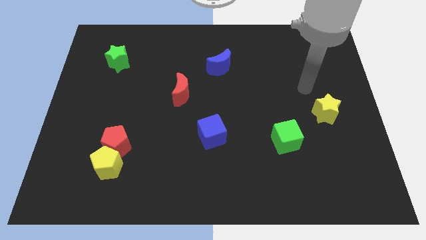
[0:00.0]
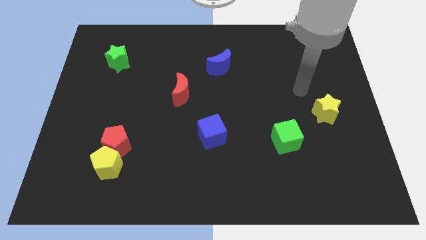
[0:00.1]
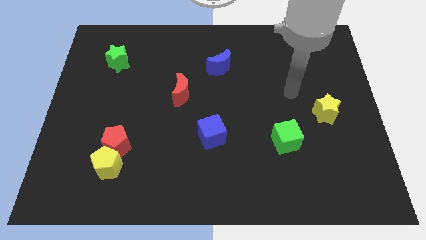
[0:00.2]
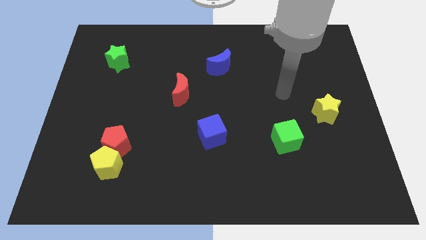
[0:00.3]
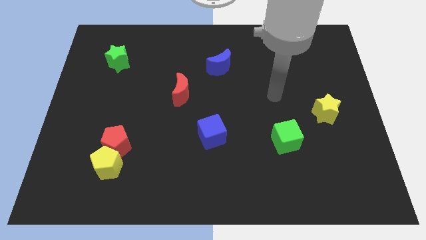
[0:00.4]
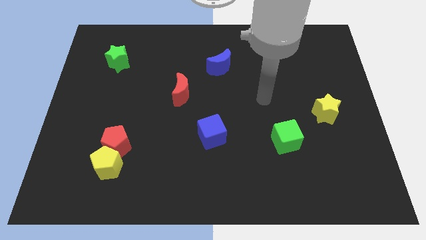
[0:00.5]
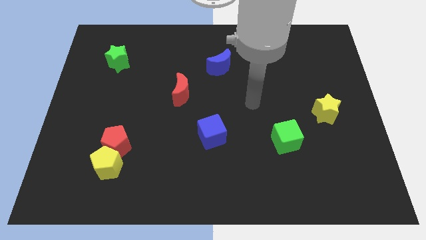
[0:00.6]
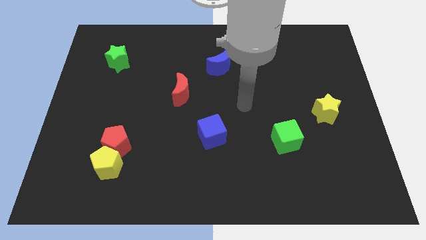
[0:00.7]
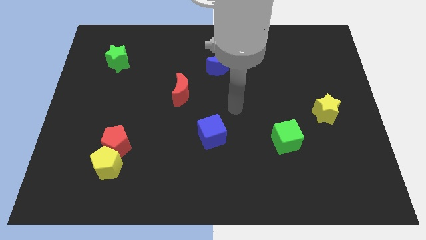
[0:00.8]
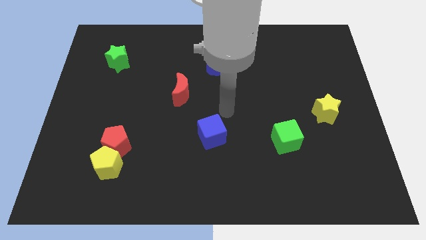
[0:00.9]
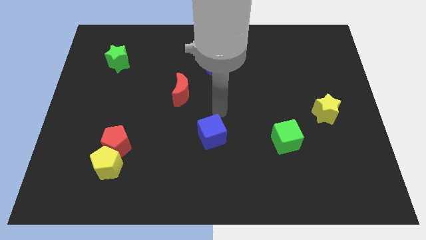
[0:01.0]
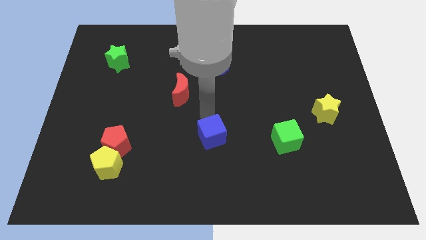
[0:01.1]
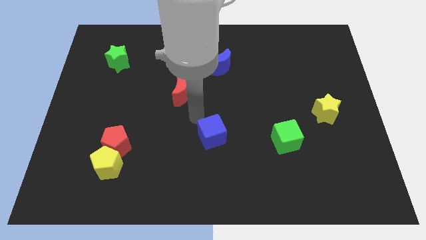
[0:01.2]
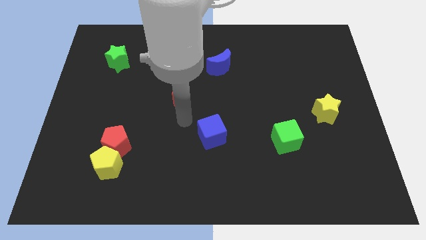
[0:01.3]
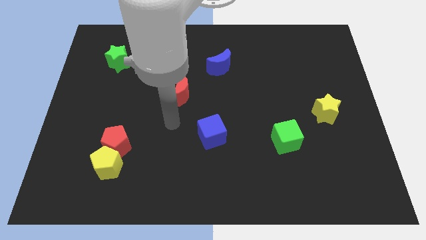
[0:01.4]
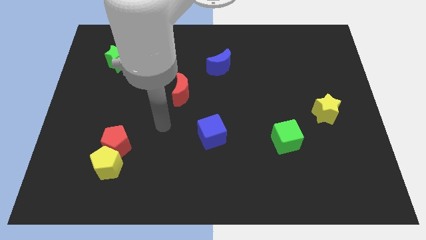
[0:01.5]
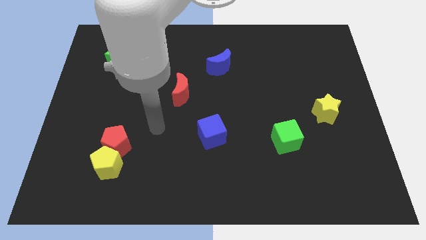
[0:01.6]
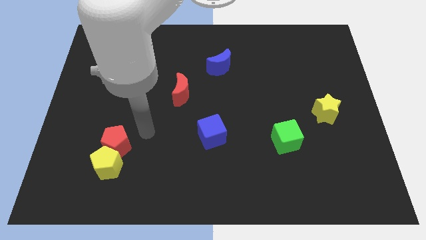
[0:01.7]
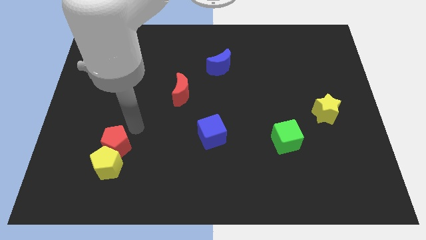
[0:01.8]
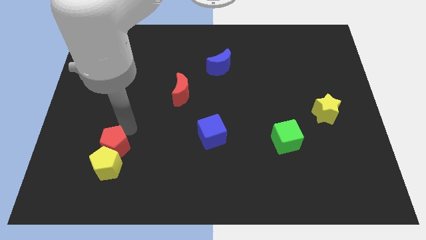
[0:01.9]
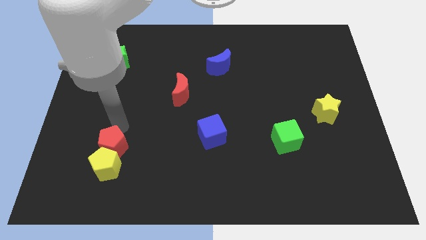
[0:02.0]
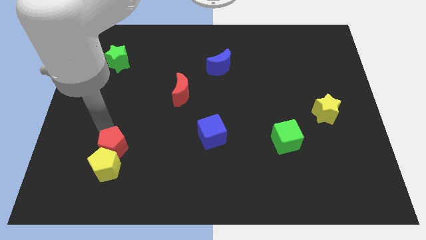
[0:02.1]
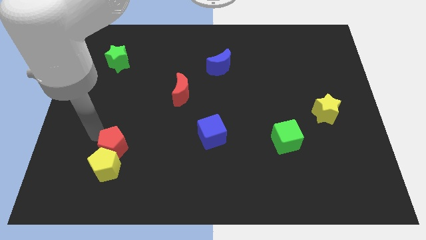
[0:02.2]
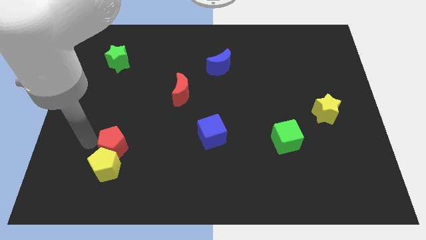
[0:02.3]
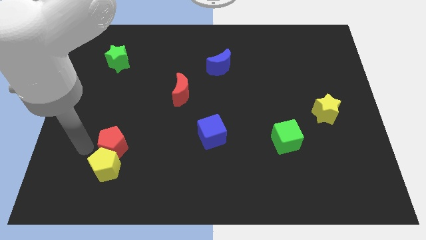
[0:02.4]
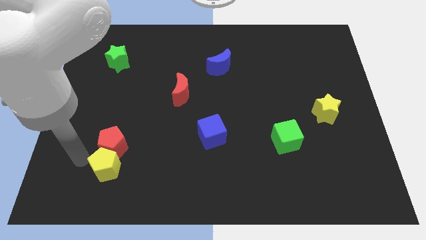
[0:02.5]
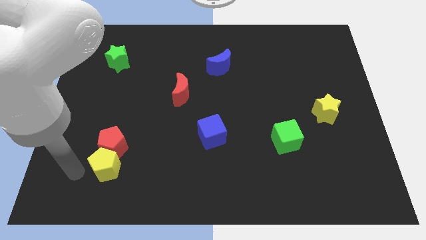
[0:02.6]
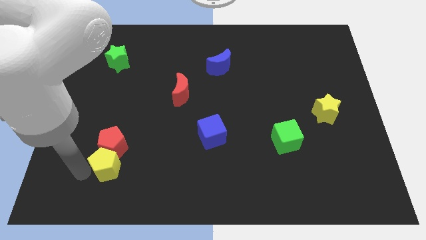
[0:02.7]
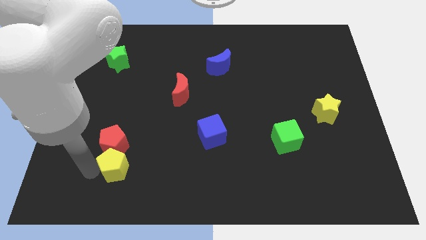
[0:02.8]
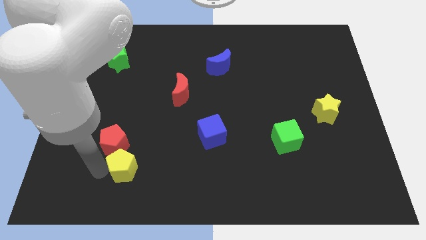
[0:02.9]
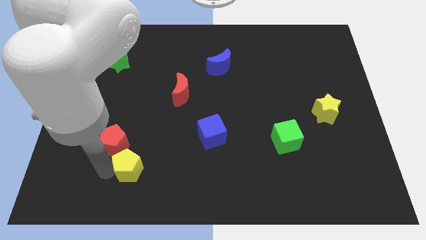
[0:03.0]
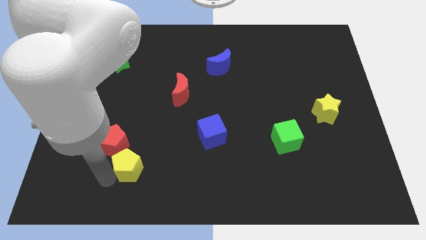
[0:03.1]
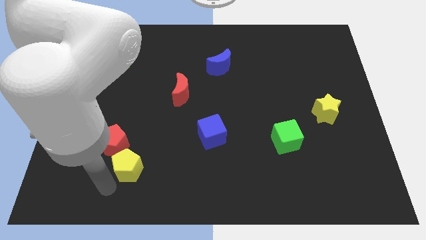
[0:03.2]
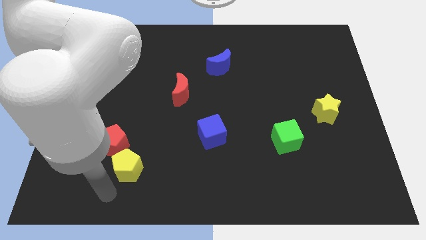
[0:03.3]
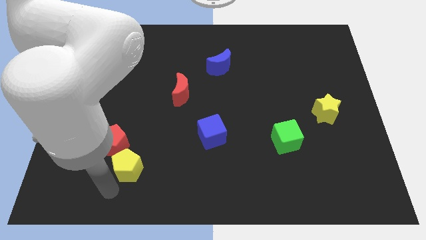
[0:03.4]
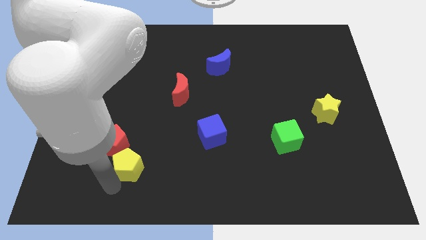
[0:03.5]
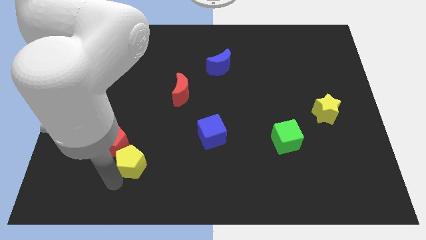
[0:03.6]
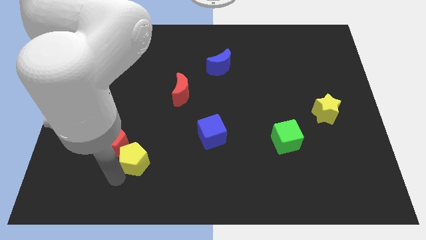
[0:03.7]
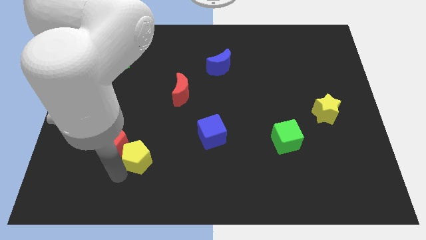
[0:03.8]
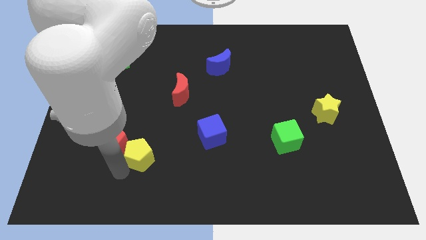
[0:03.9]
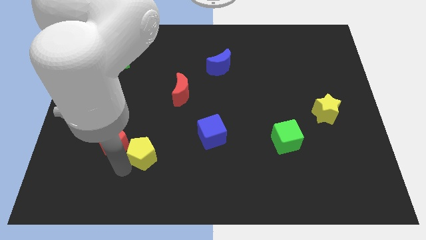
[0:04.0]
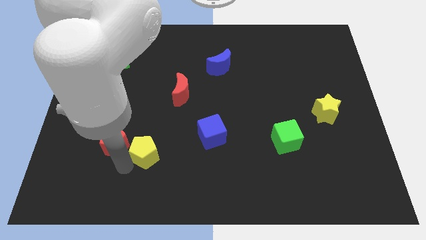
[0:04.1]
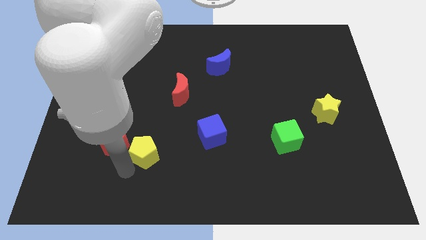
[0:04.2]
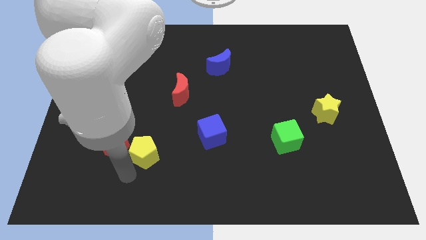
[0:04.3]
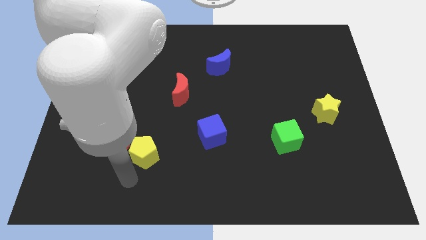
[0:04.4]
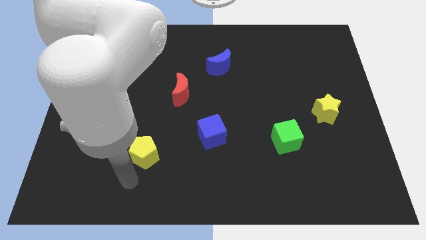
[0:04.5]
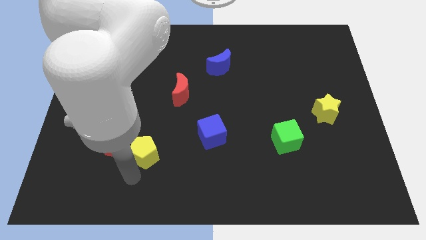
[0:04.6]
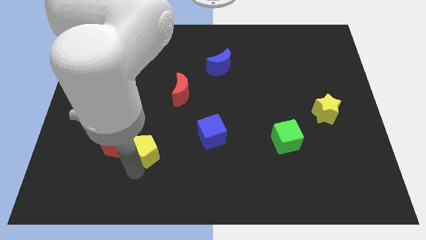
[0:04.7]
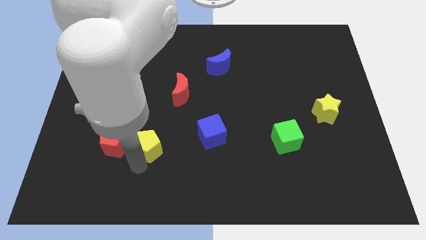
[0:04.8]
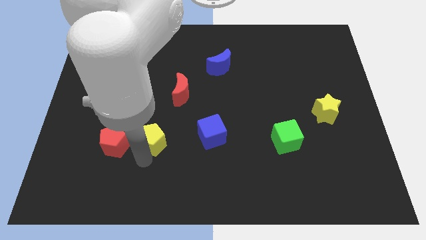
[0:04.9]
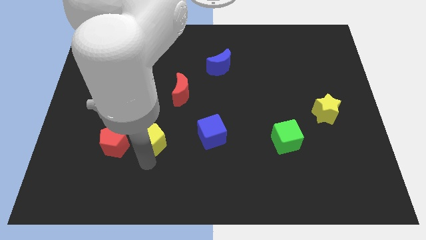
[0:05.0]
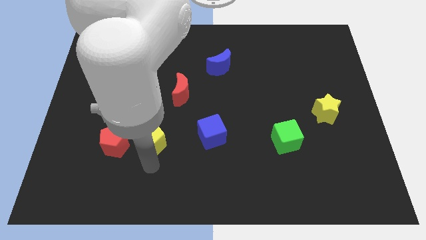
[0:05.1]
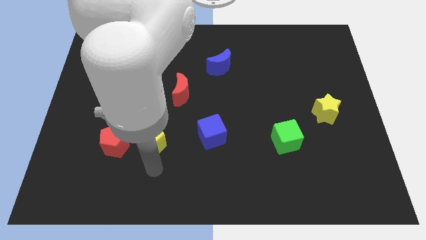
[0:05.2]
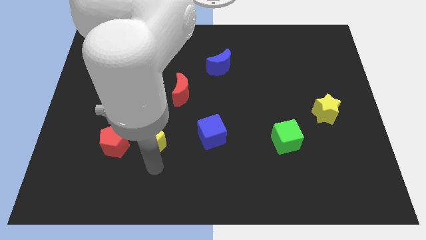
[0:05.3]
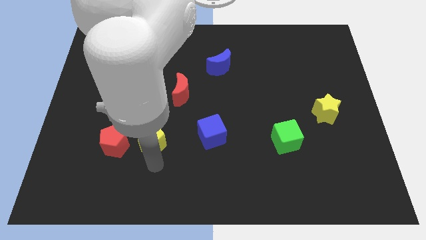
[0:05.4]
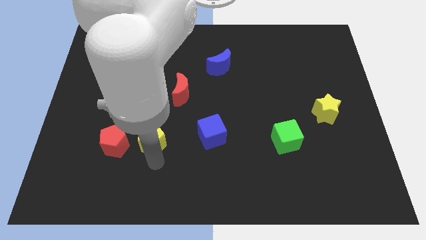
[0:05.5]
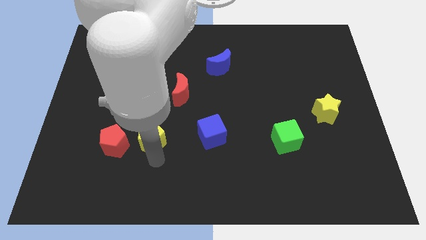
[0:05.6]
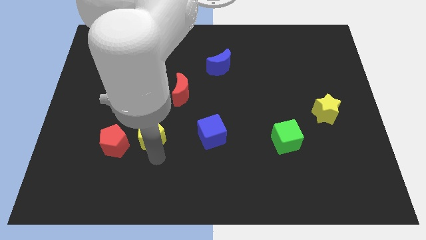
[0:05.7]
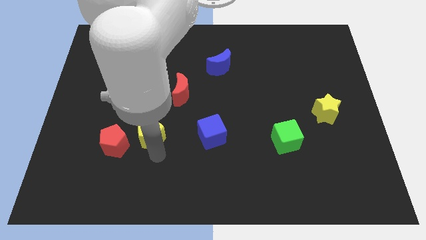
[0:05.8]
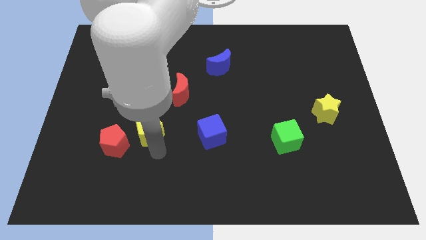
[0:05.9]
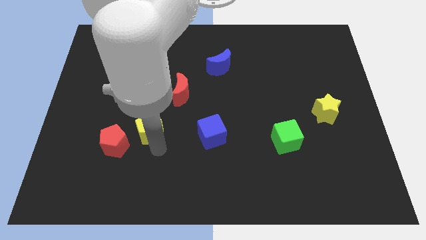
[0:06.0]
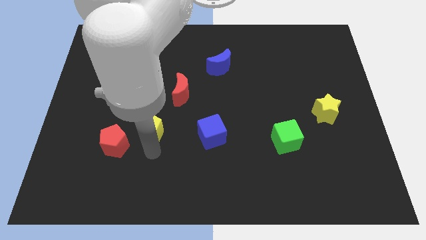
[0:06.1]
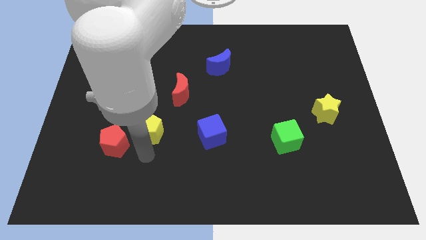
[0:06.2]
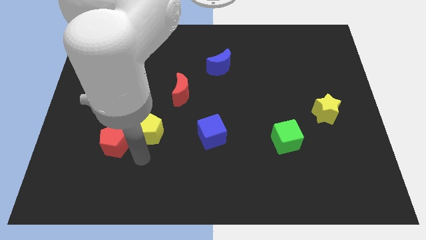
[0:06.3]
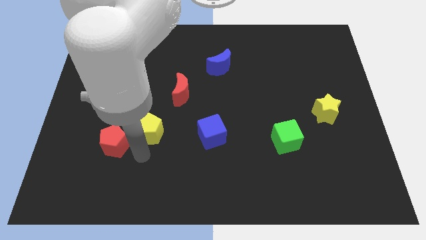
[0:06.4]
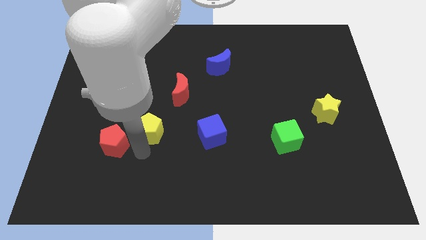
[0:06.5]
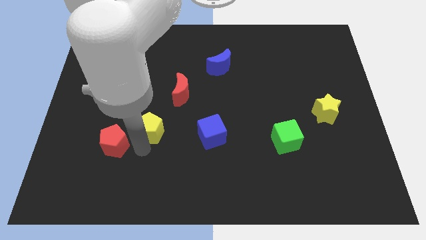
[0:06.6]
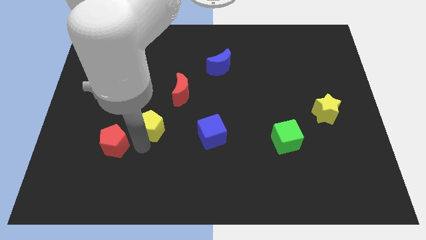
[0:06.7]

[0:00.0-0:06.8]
push the yellow pentagon to the bottom left of the red moon

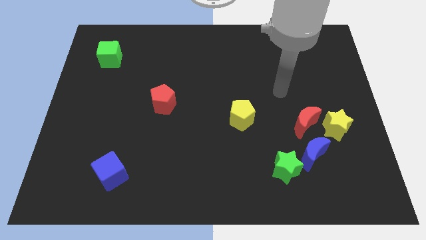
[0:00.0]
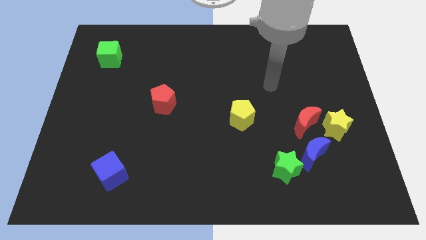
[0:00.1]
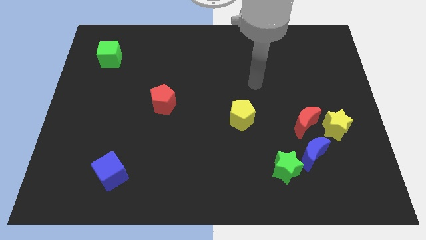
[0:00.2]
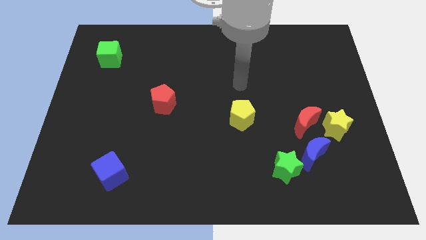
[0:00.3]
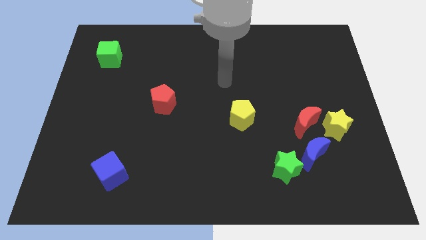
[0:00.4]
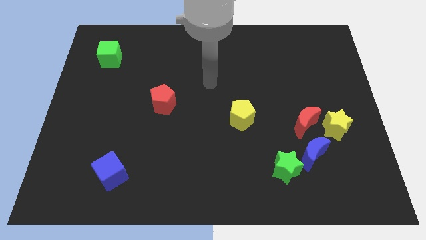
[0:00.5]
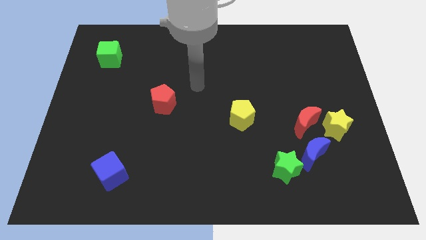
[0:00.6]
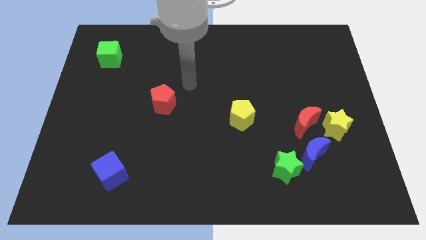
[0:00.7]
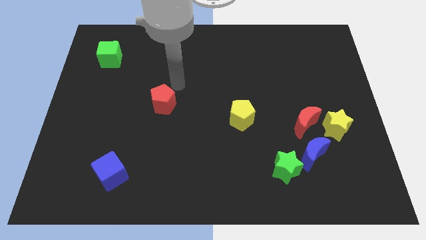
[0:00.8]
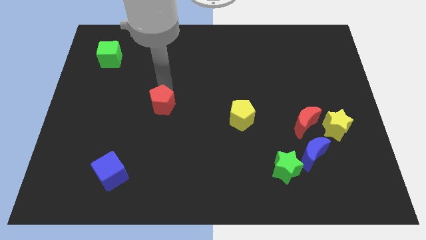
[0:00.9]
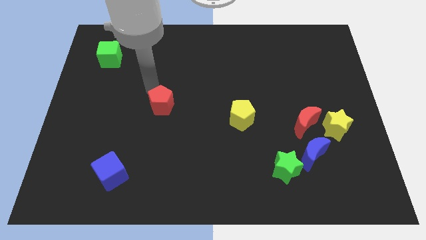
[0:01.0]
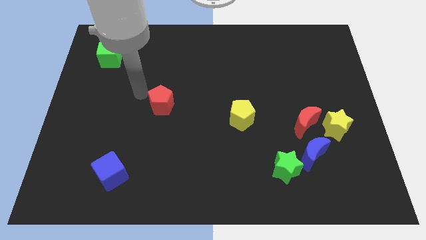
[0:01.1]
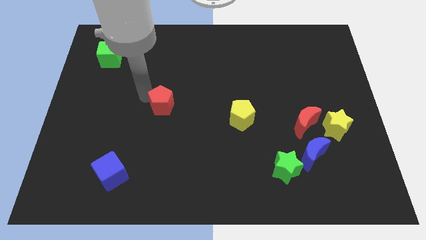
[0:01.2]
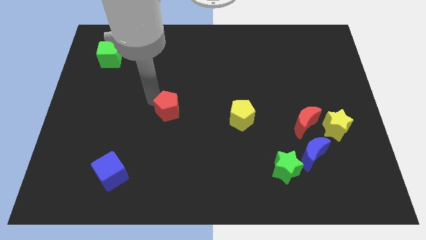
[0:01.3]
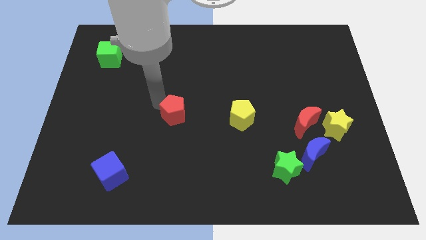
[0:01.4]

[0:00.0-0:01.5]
move the red pentagon left of the yellow pentagon
